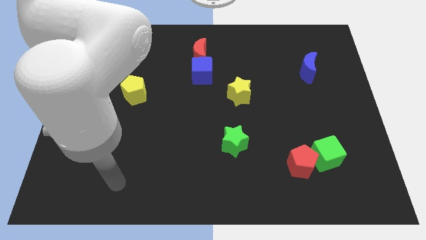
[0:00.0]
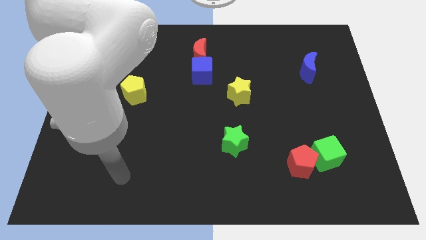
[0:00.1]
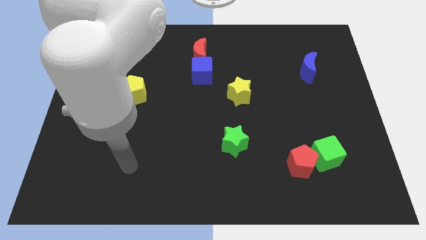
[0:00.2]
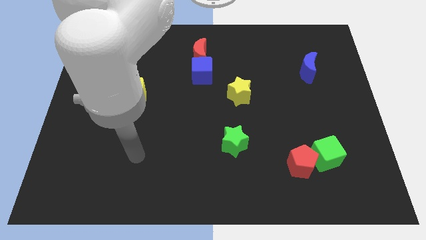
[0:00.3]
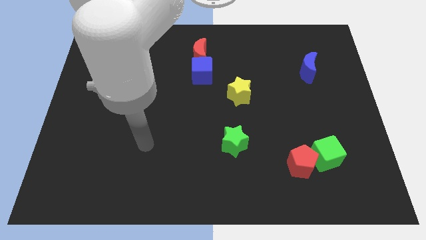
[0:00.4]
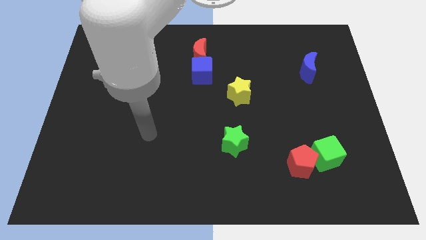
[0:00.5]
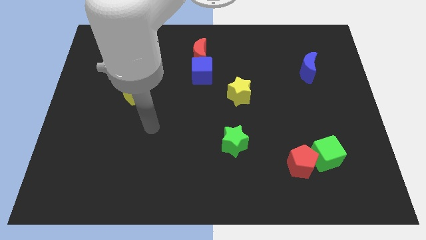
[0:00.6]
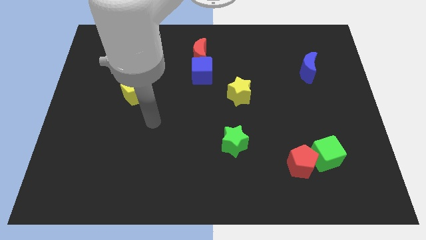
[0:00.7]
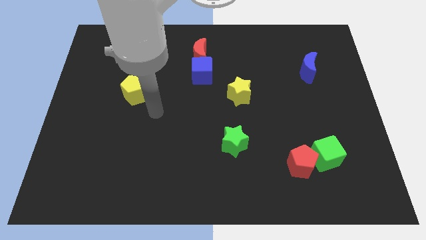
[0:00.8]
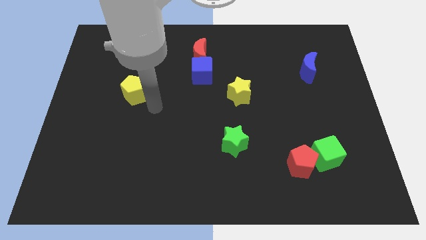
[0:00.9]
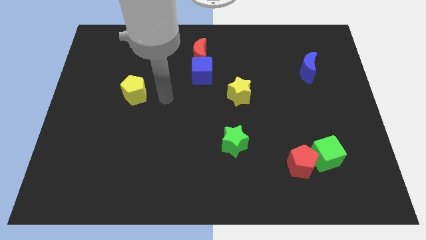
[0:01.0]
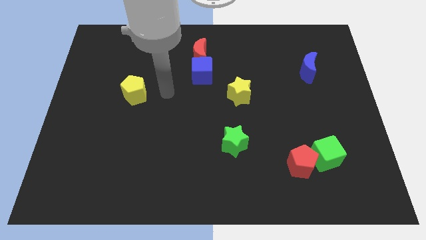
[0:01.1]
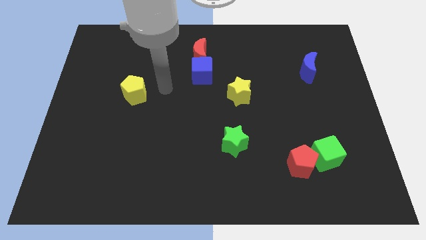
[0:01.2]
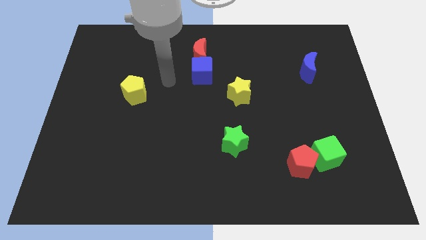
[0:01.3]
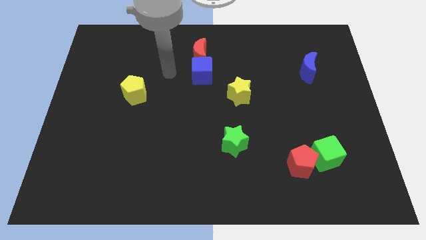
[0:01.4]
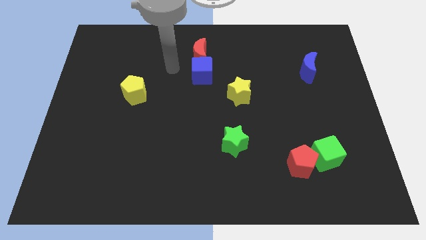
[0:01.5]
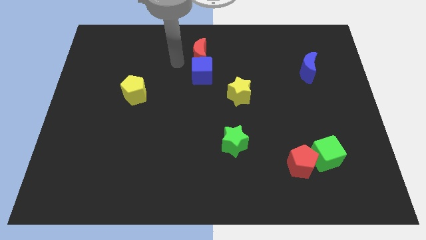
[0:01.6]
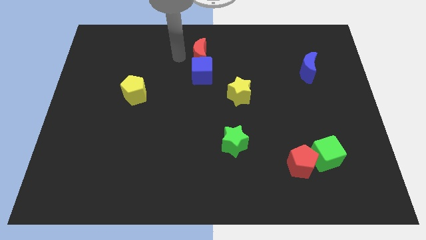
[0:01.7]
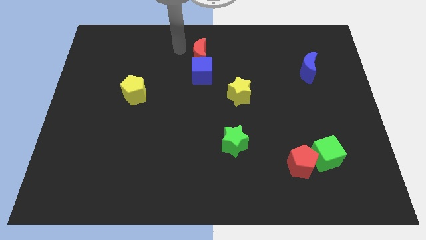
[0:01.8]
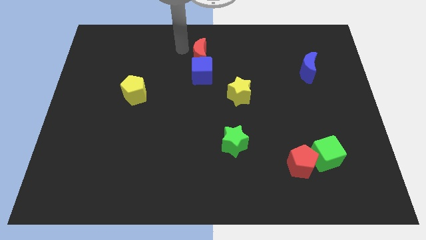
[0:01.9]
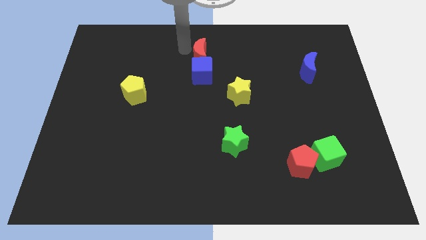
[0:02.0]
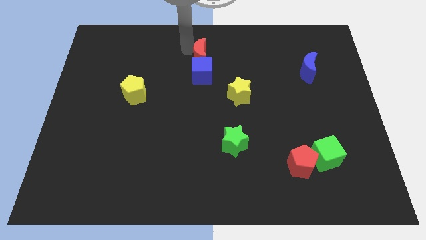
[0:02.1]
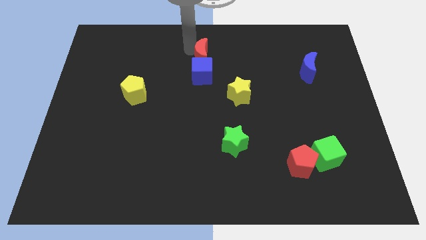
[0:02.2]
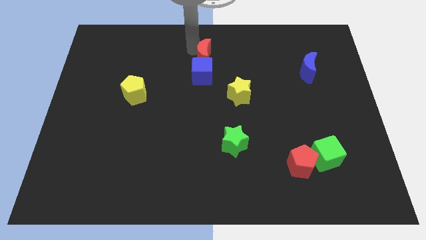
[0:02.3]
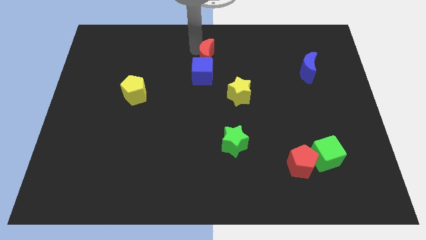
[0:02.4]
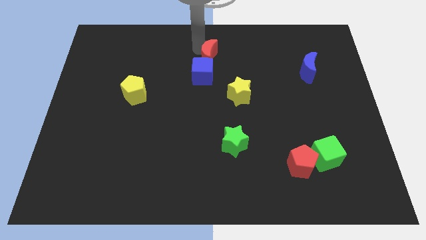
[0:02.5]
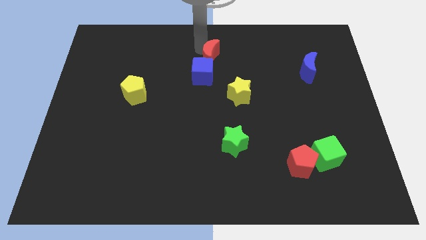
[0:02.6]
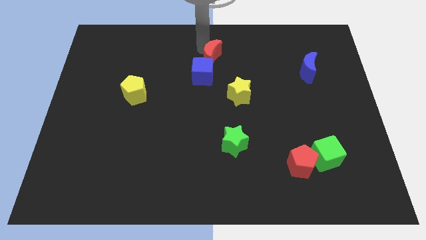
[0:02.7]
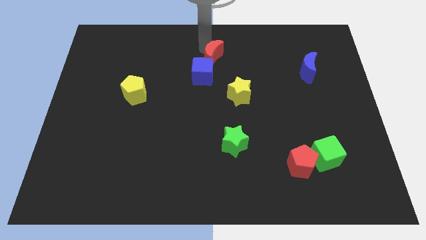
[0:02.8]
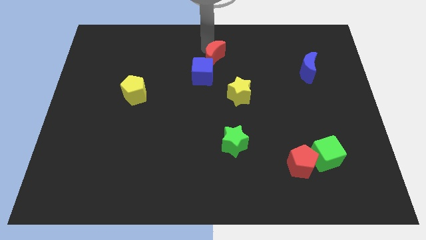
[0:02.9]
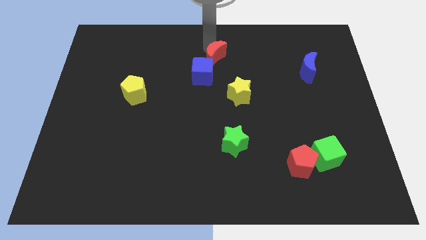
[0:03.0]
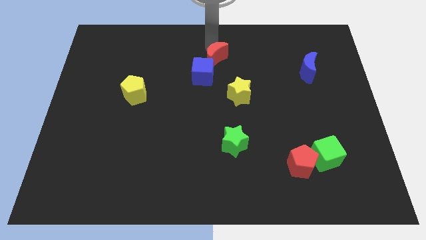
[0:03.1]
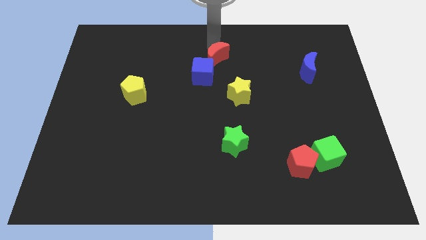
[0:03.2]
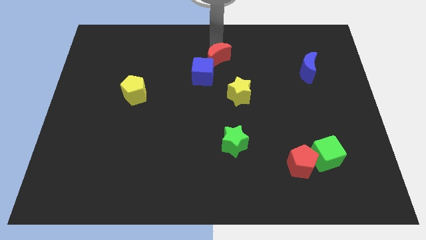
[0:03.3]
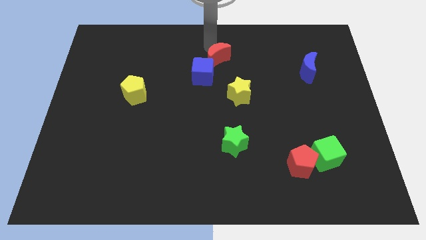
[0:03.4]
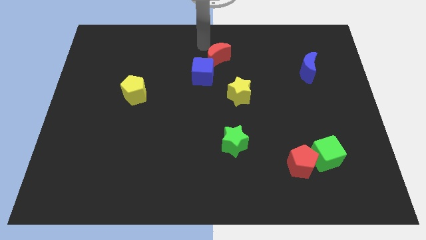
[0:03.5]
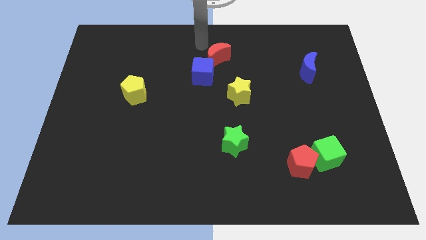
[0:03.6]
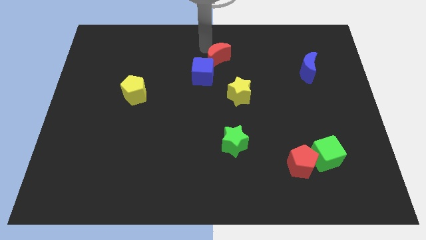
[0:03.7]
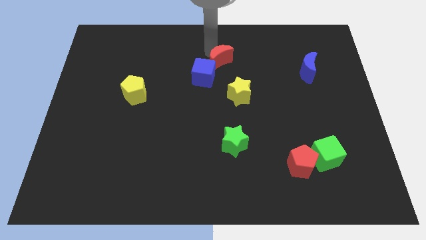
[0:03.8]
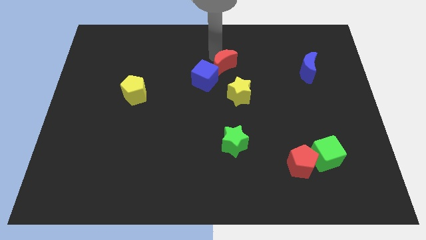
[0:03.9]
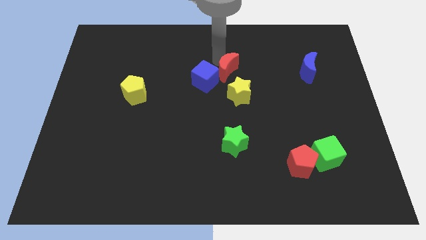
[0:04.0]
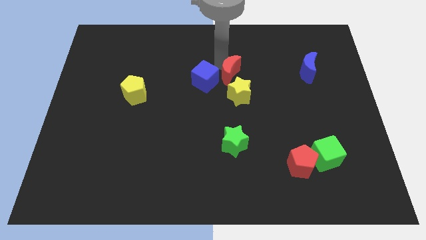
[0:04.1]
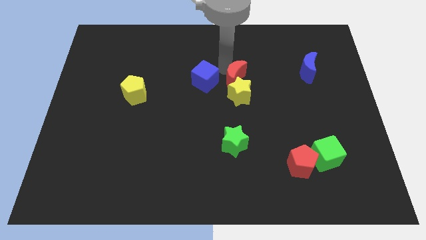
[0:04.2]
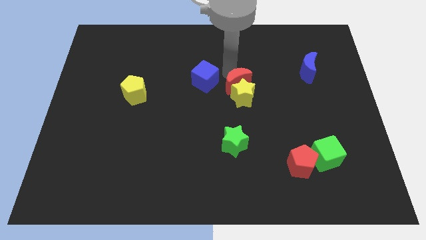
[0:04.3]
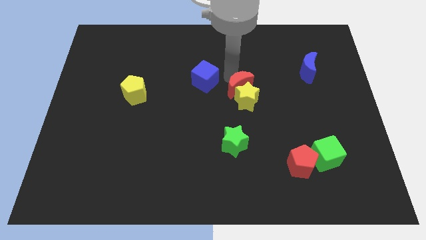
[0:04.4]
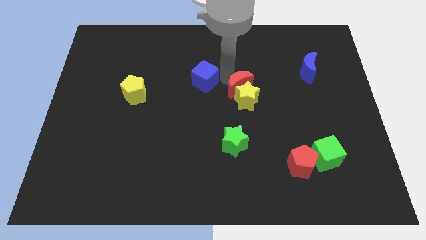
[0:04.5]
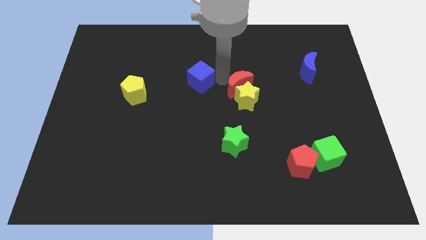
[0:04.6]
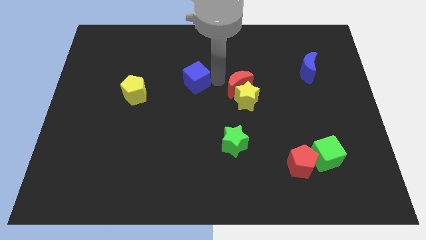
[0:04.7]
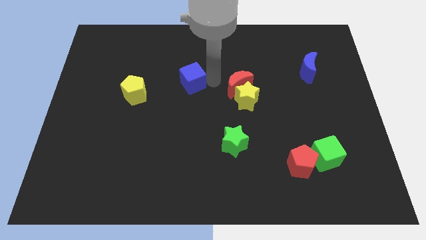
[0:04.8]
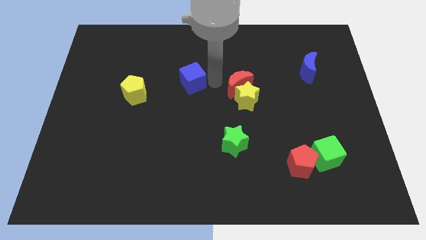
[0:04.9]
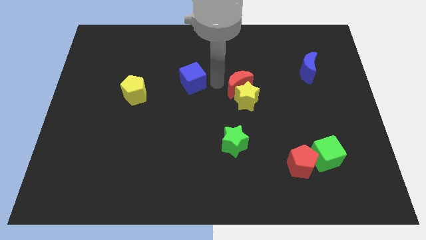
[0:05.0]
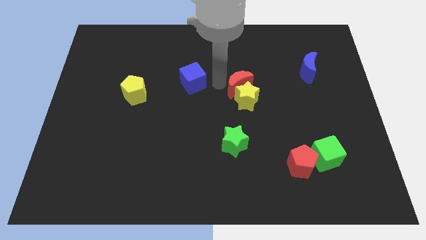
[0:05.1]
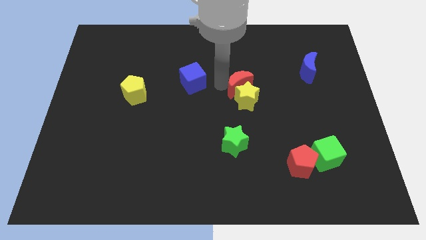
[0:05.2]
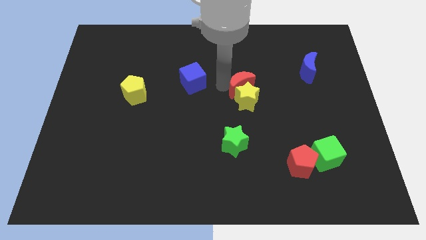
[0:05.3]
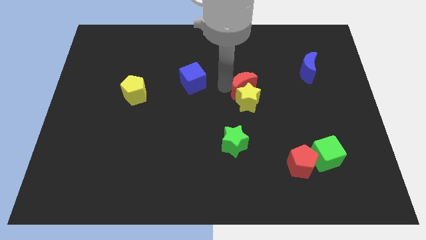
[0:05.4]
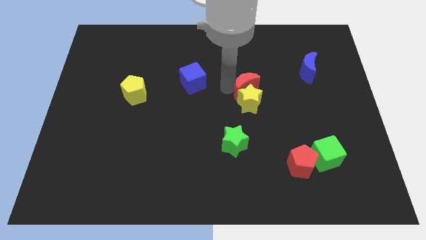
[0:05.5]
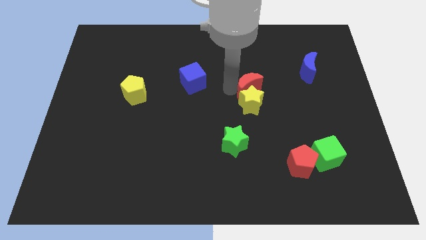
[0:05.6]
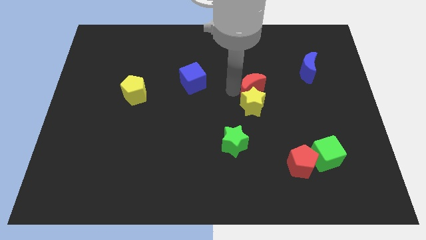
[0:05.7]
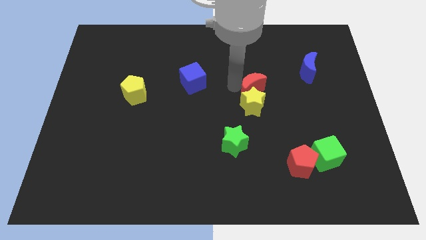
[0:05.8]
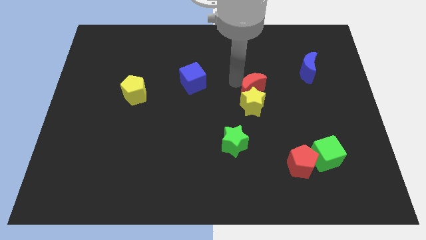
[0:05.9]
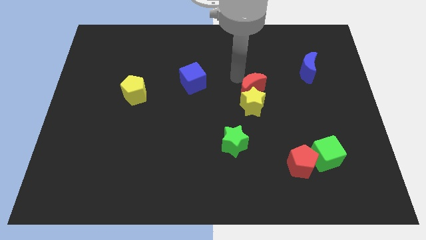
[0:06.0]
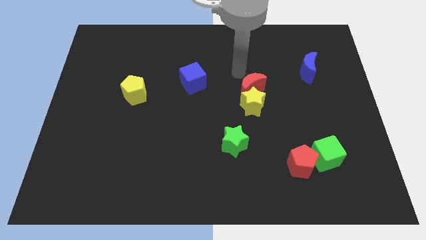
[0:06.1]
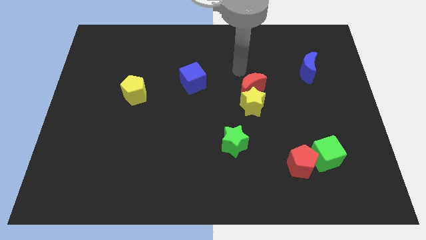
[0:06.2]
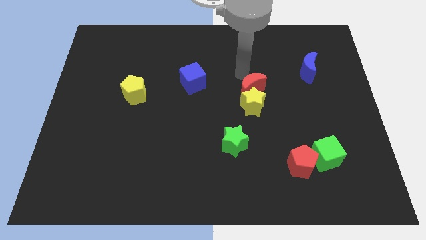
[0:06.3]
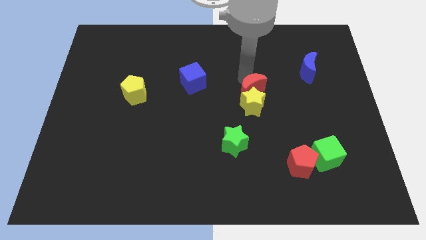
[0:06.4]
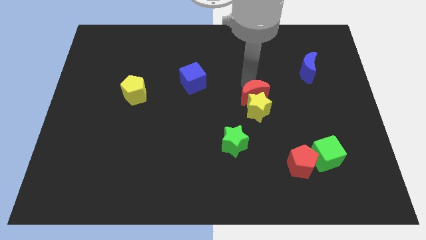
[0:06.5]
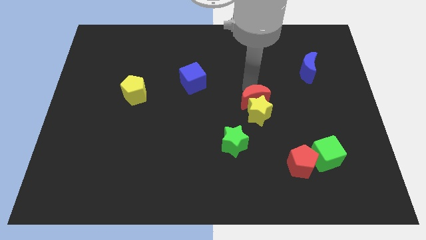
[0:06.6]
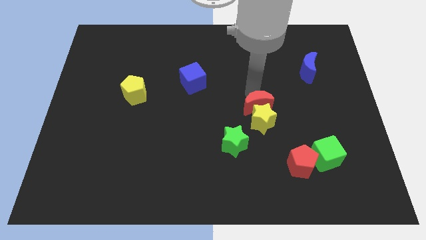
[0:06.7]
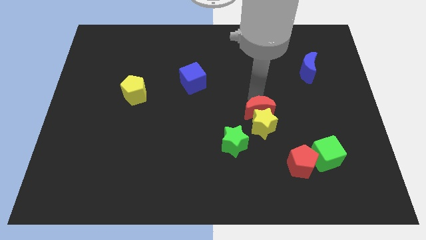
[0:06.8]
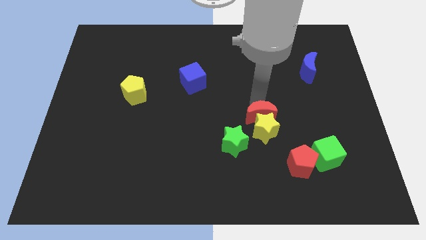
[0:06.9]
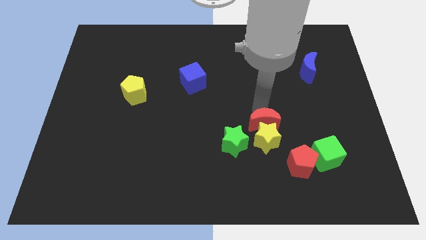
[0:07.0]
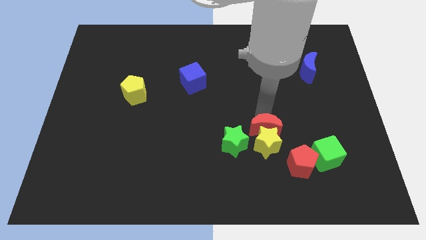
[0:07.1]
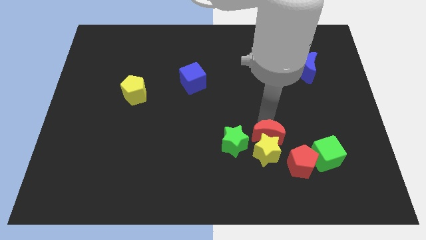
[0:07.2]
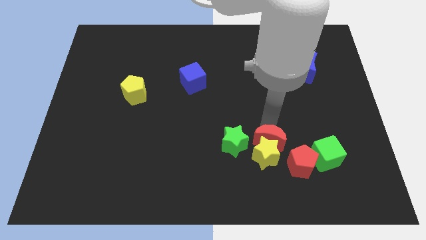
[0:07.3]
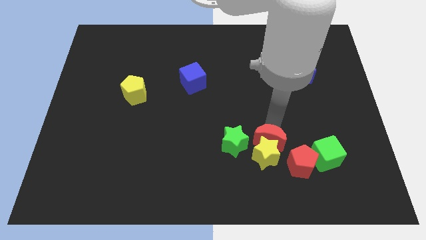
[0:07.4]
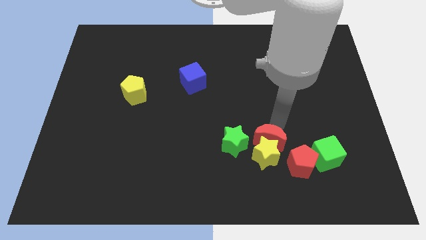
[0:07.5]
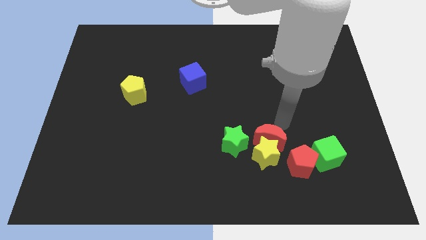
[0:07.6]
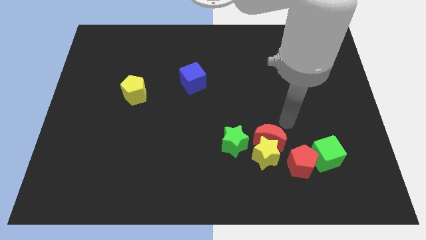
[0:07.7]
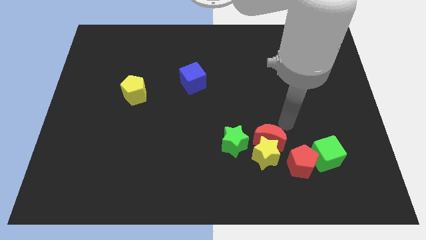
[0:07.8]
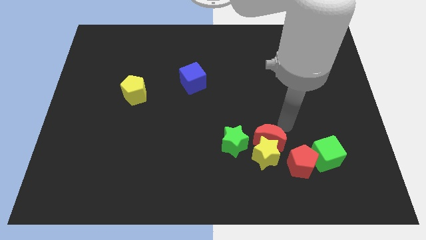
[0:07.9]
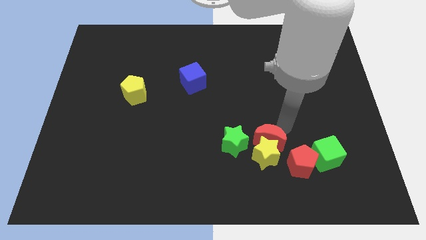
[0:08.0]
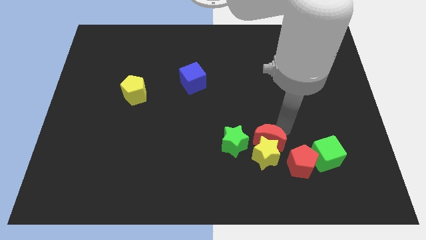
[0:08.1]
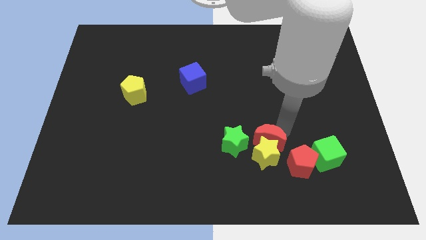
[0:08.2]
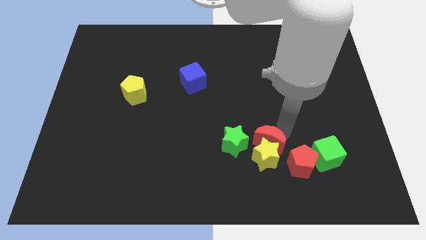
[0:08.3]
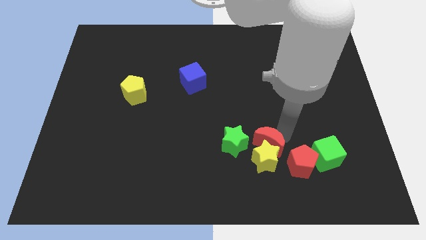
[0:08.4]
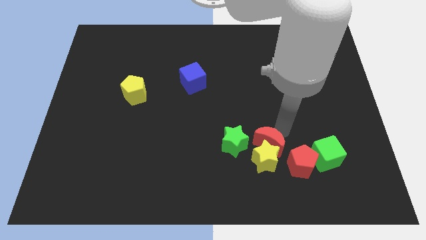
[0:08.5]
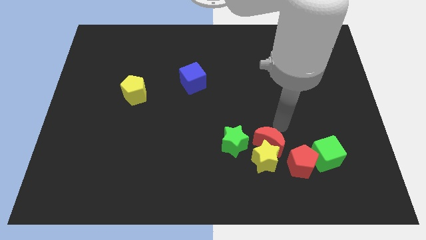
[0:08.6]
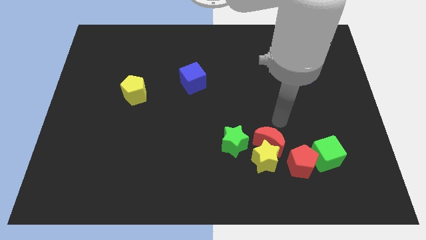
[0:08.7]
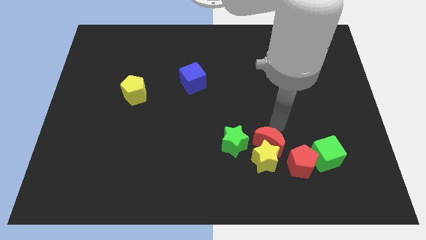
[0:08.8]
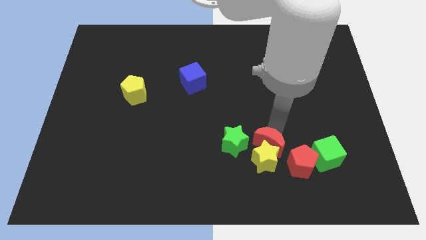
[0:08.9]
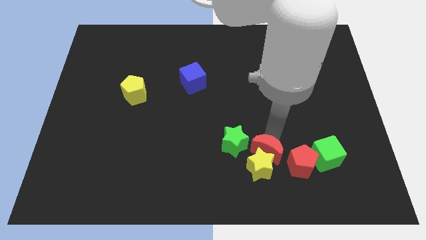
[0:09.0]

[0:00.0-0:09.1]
slide the red moon diagonally down and to the right of the green star
